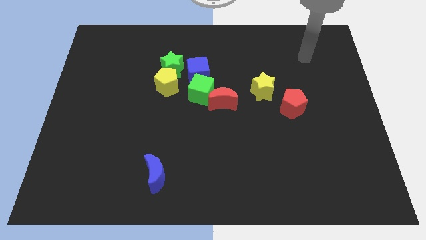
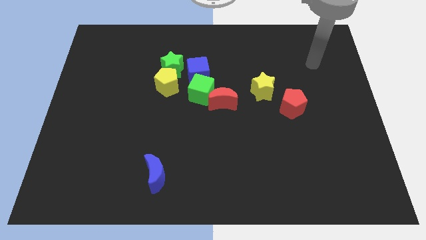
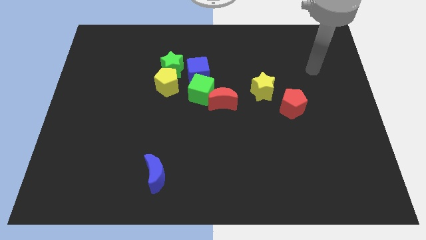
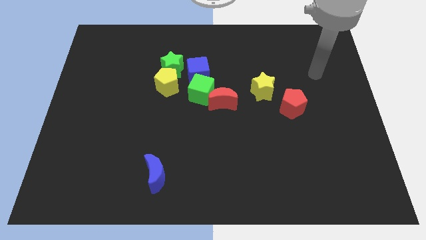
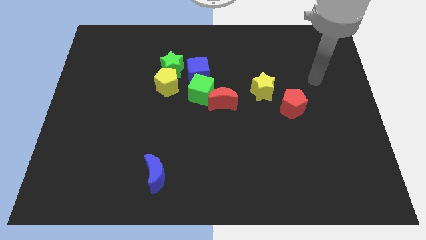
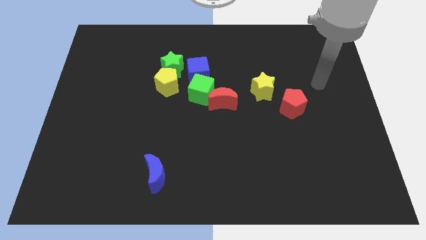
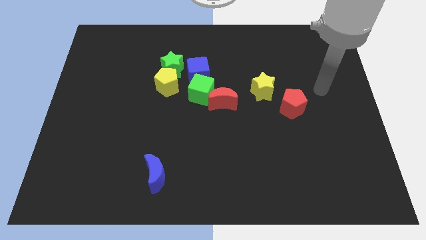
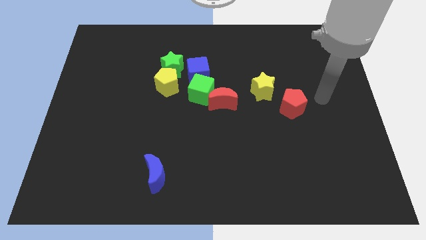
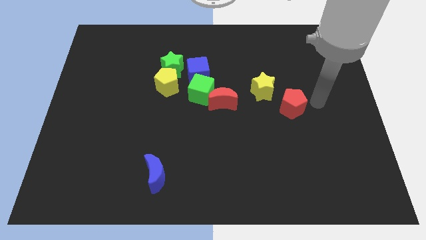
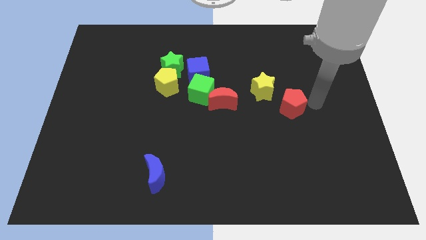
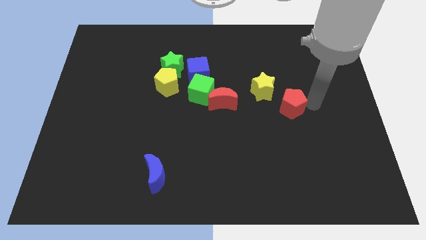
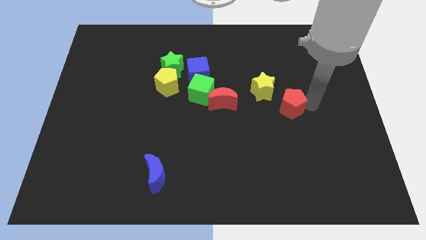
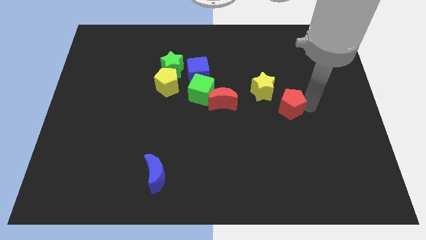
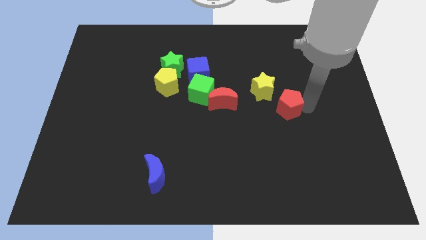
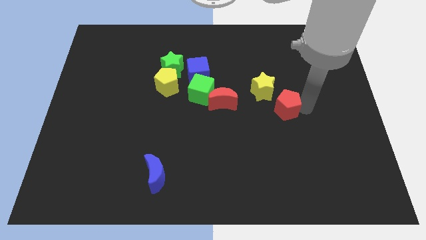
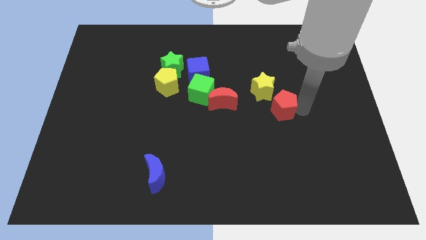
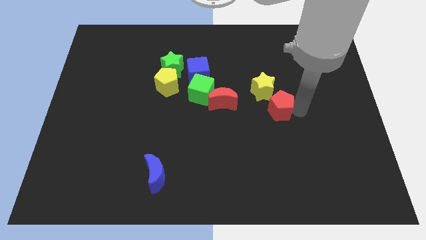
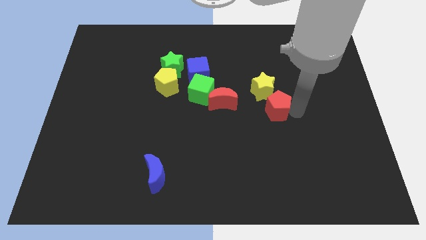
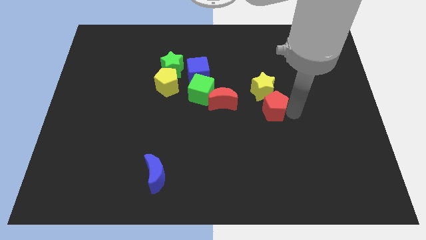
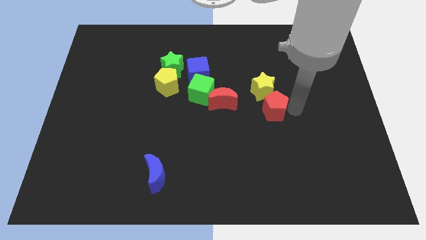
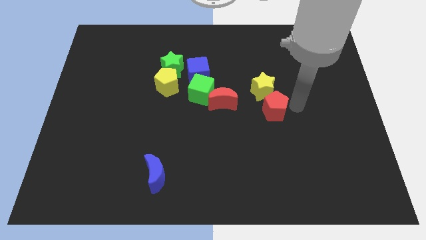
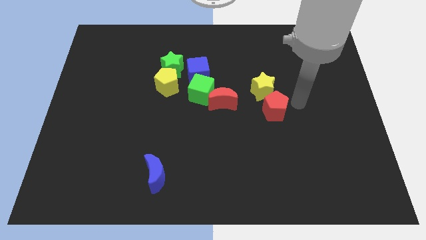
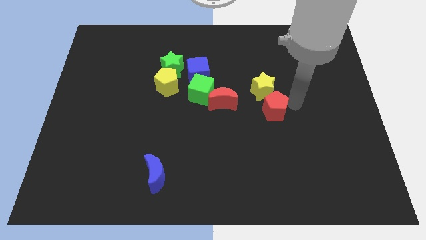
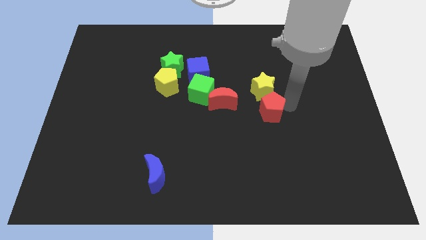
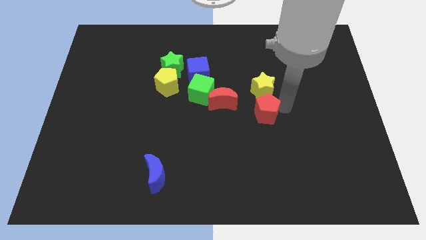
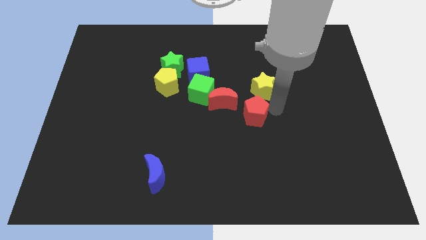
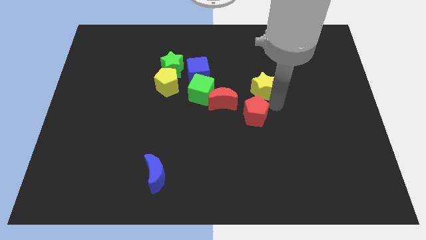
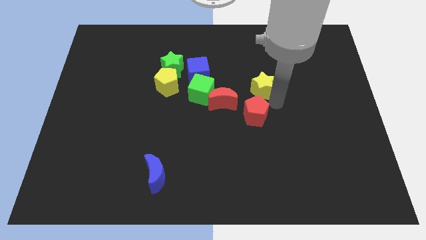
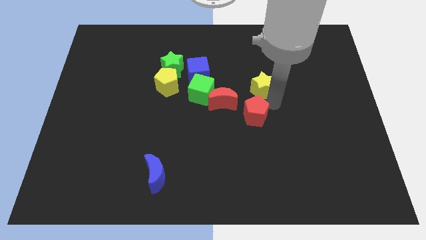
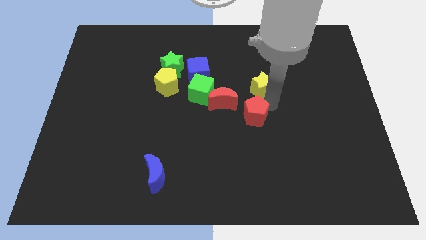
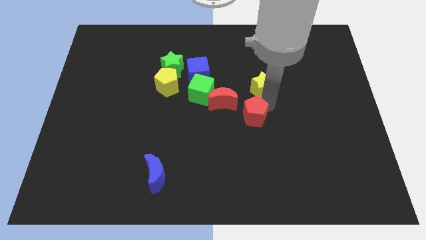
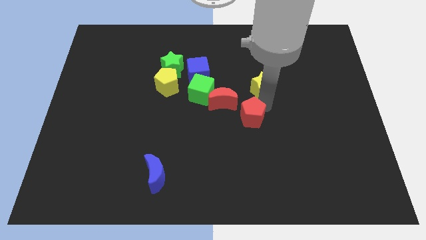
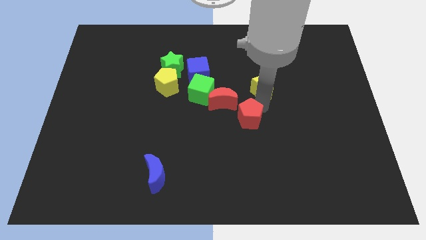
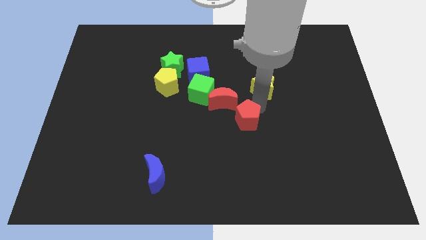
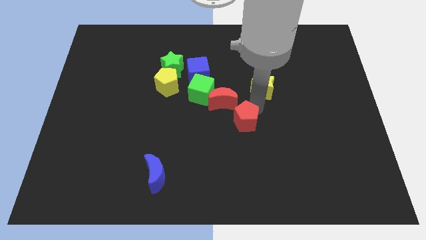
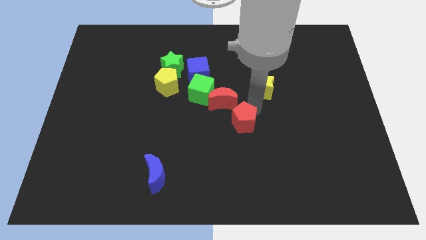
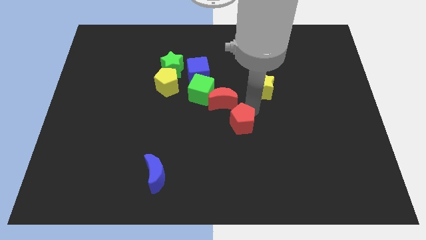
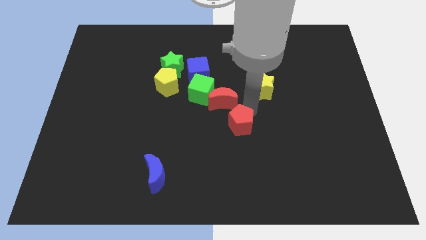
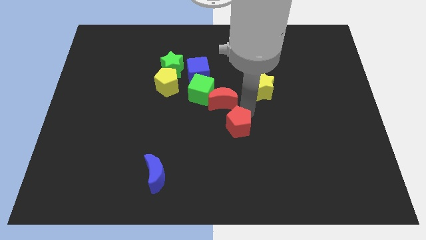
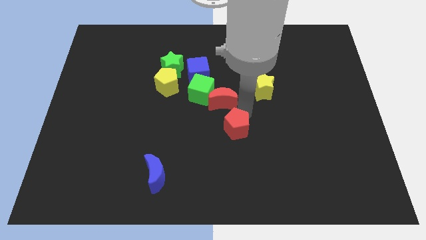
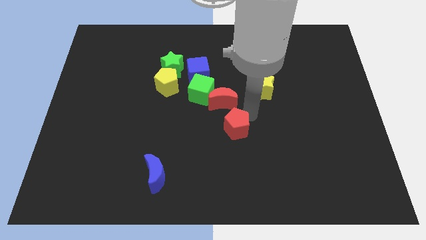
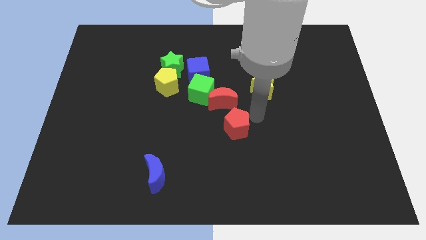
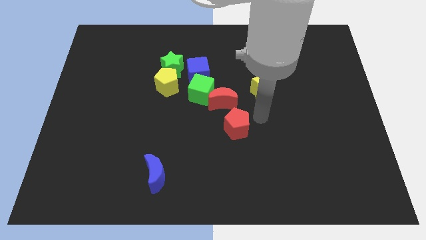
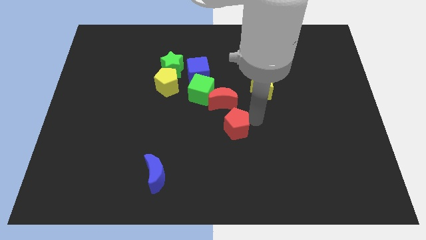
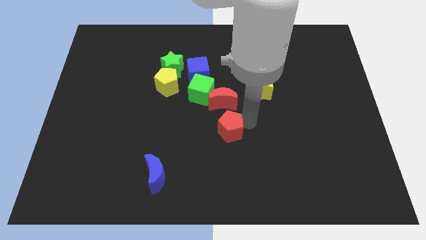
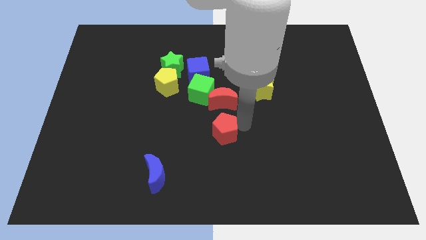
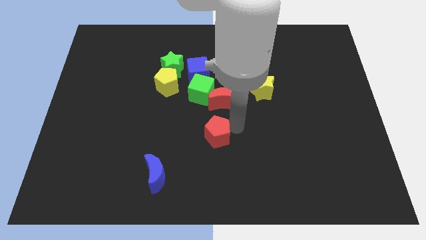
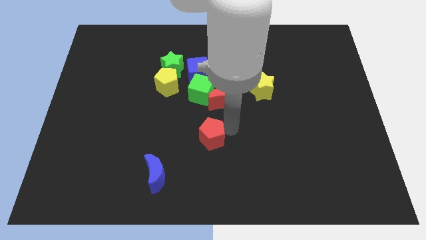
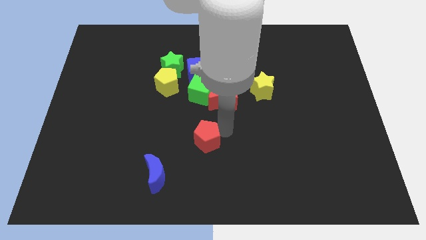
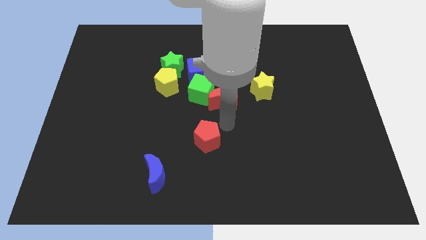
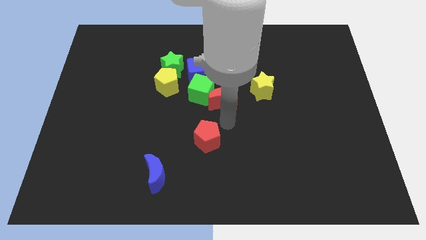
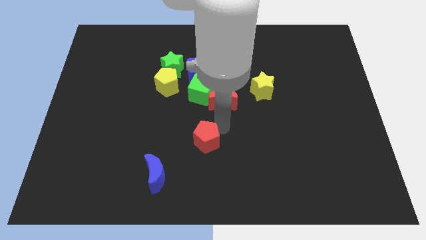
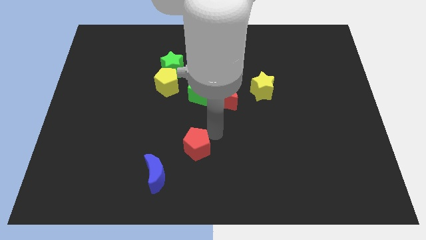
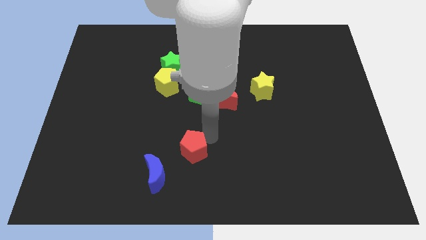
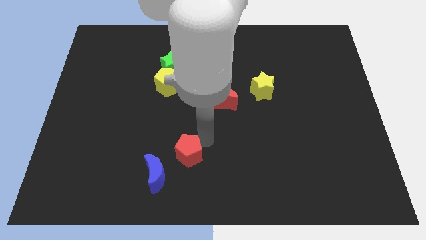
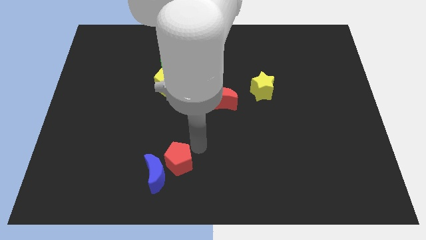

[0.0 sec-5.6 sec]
put the red pentagon next to the blue moon

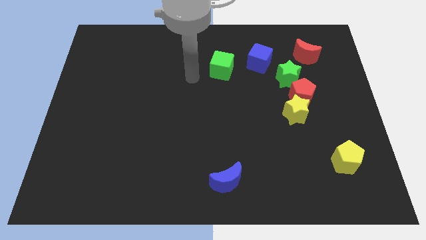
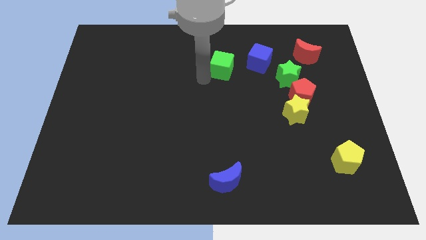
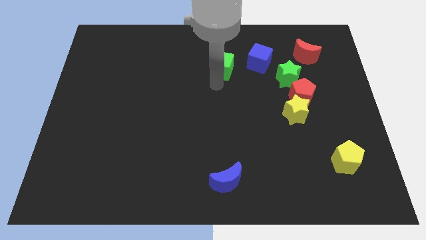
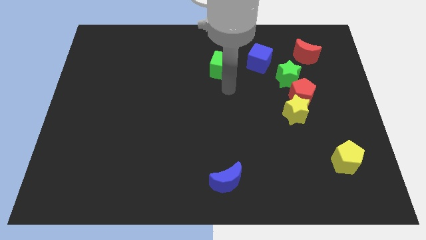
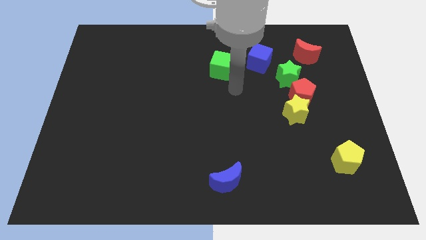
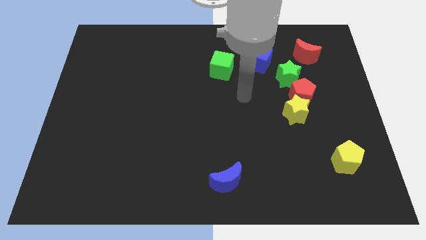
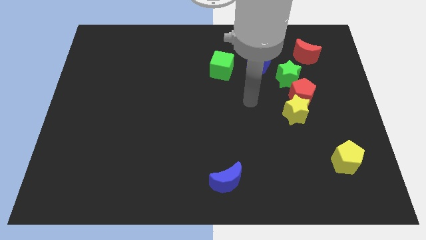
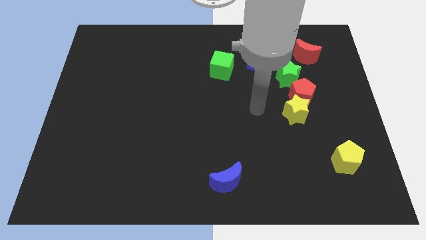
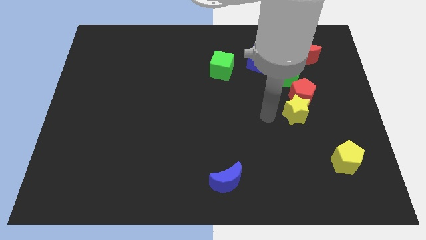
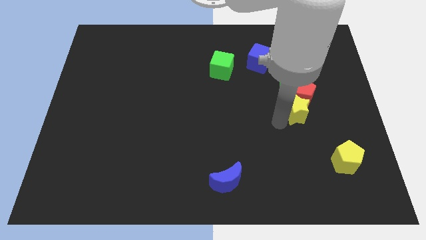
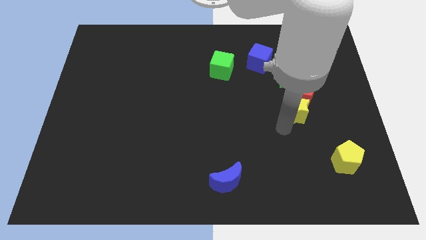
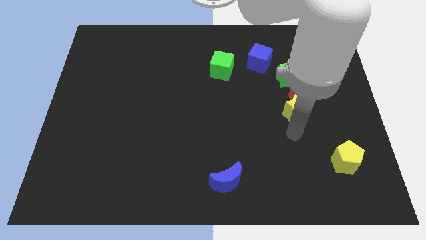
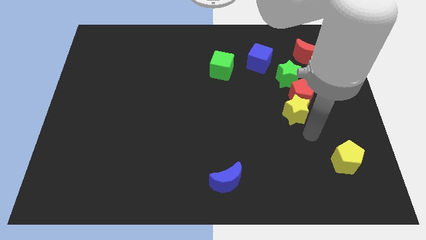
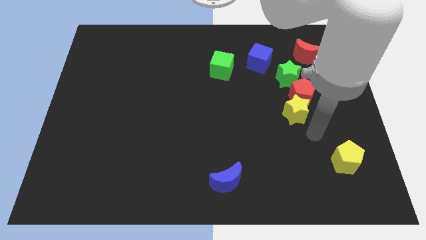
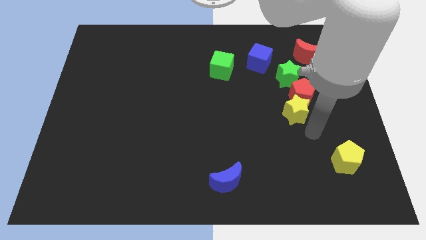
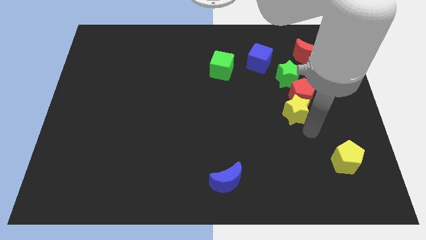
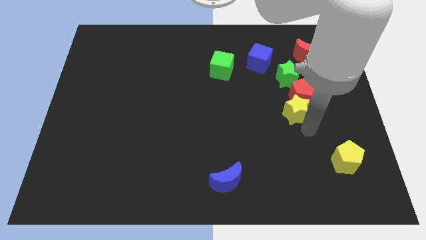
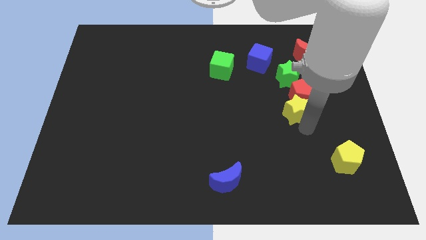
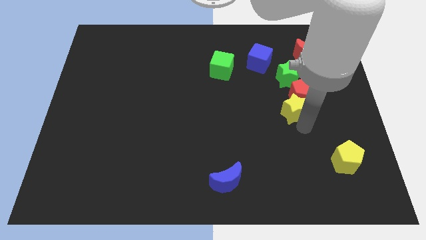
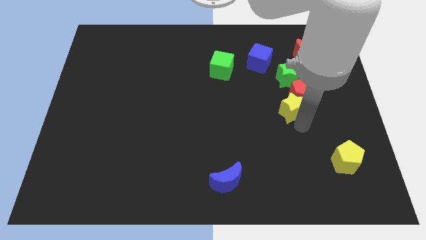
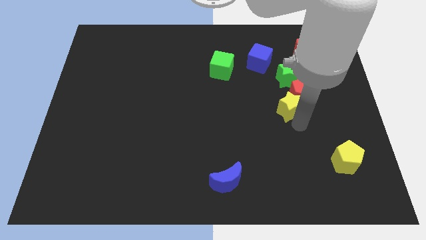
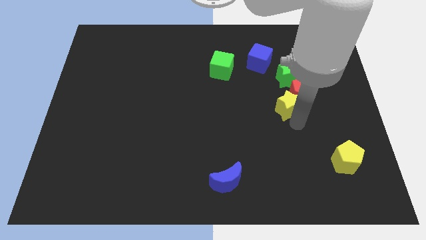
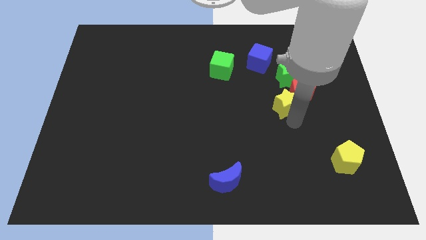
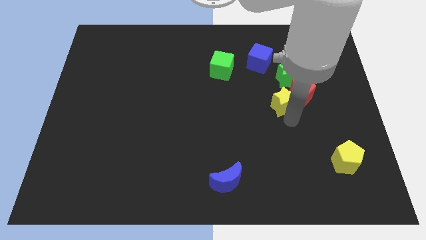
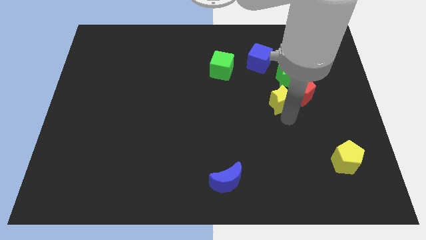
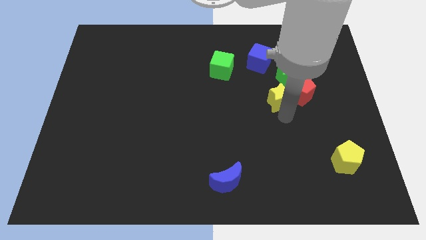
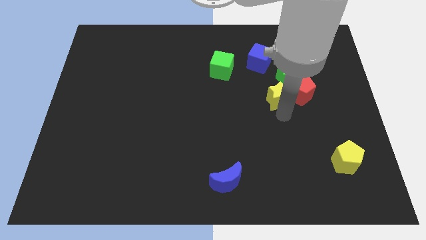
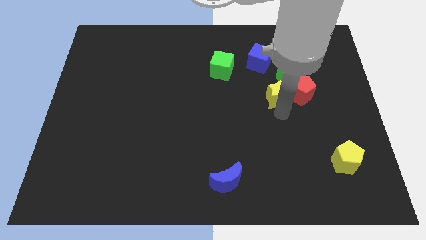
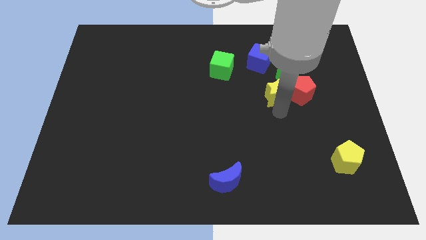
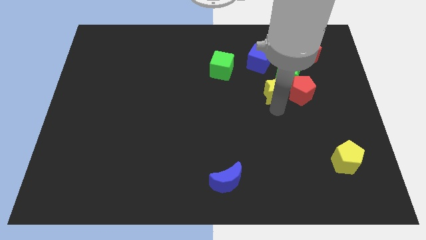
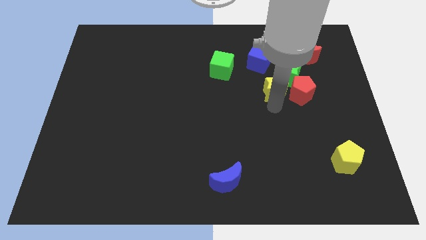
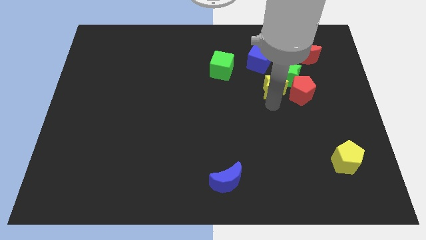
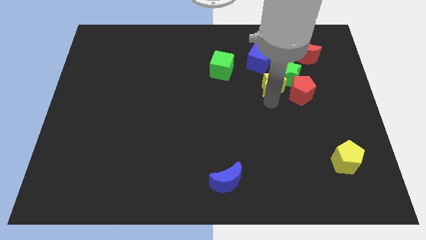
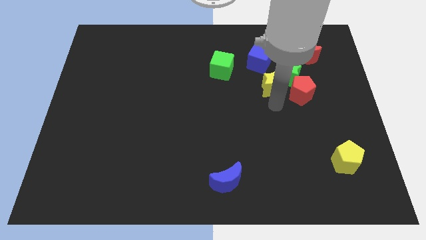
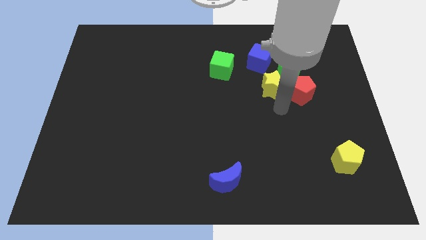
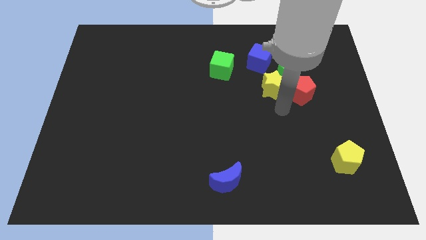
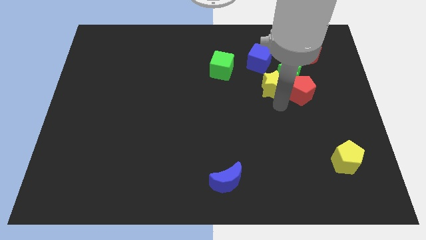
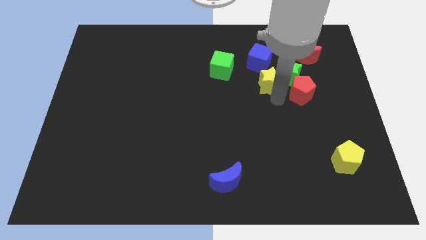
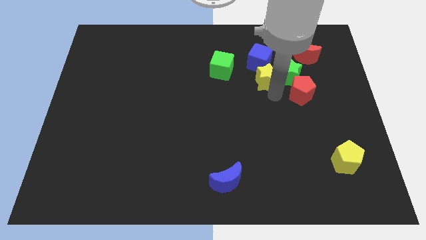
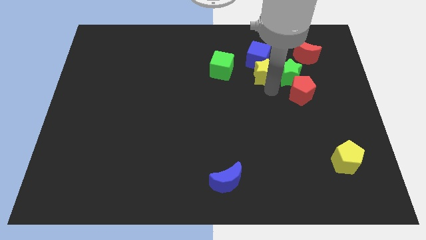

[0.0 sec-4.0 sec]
put the yellow star to the blue cube
